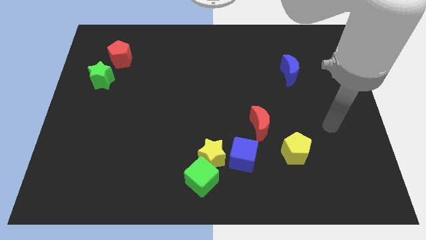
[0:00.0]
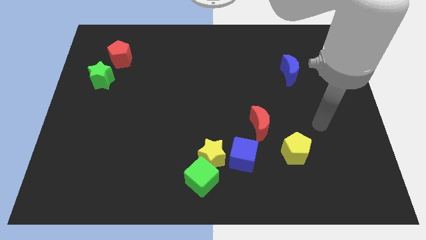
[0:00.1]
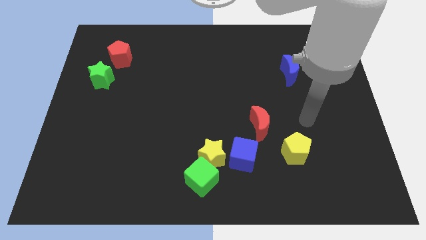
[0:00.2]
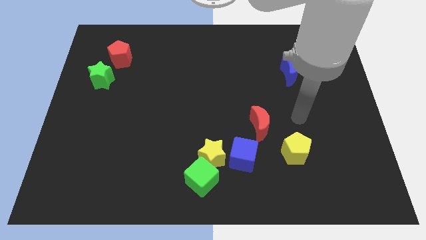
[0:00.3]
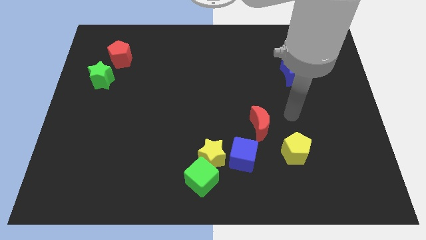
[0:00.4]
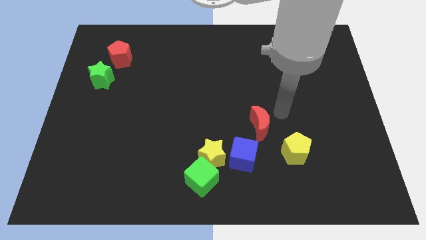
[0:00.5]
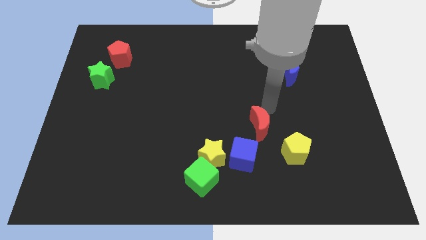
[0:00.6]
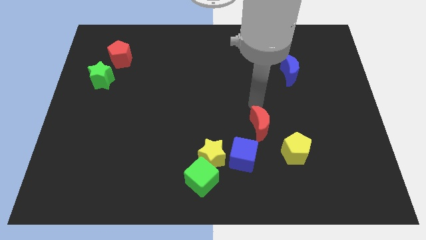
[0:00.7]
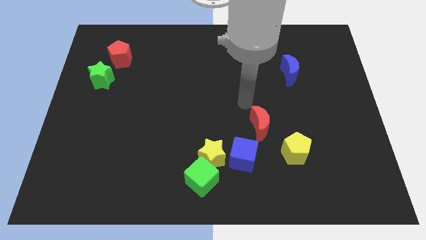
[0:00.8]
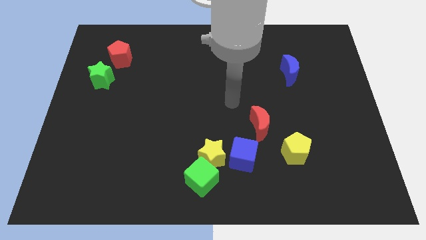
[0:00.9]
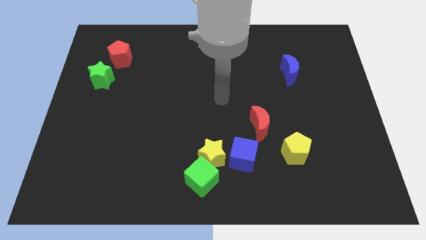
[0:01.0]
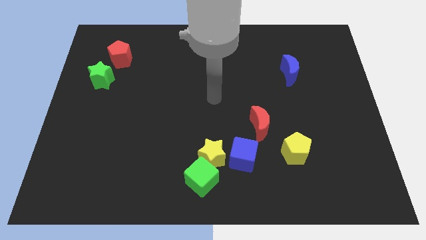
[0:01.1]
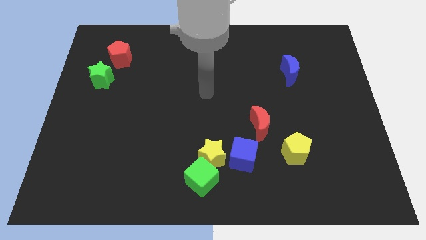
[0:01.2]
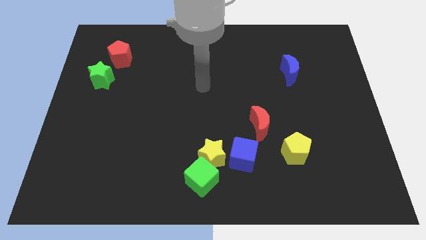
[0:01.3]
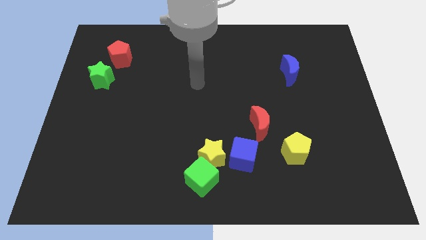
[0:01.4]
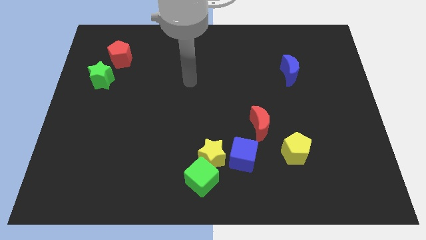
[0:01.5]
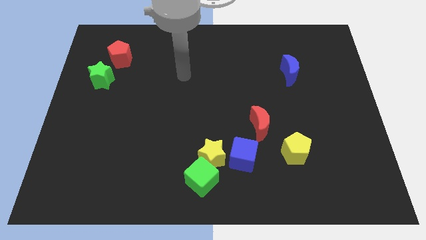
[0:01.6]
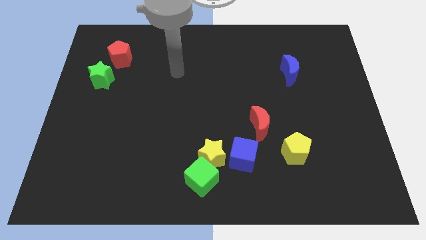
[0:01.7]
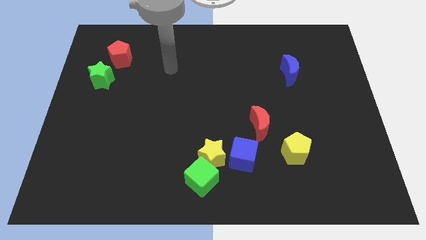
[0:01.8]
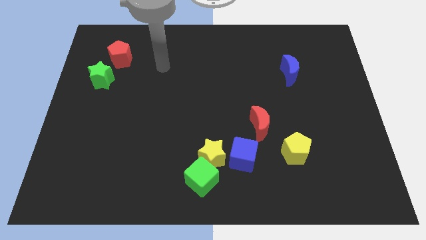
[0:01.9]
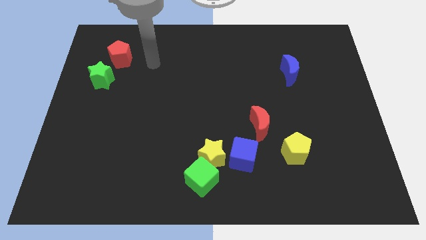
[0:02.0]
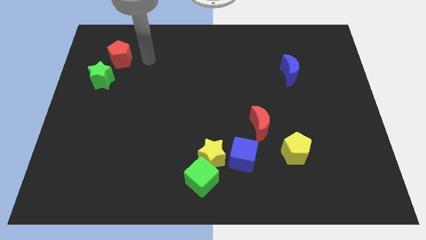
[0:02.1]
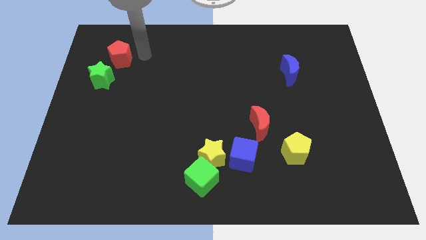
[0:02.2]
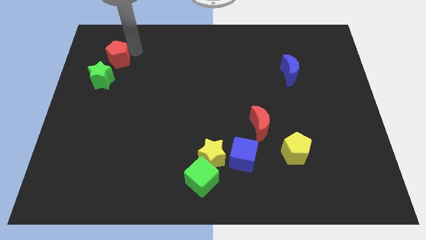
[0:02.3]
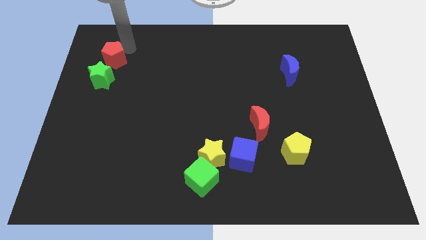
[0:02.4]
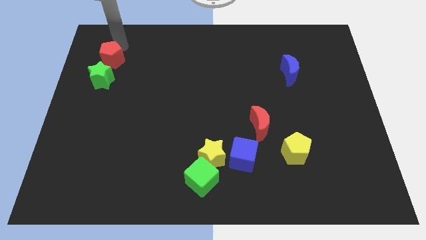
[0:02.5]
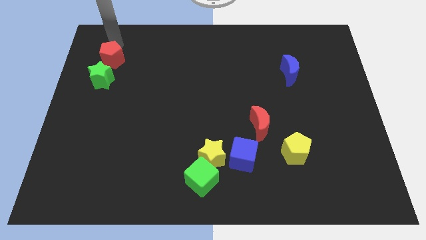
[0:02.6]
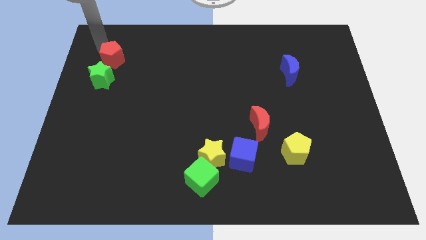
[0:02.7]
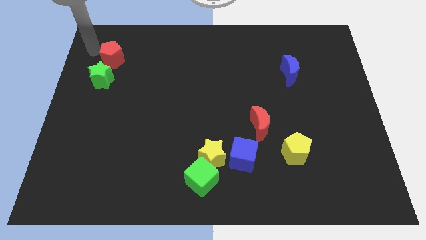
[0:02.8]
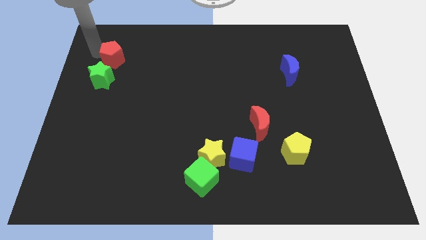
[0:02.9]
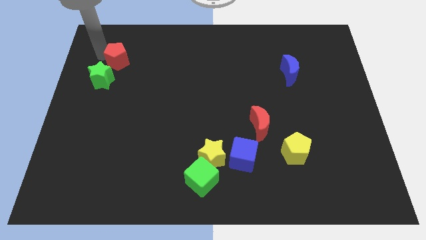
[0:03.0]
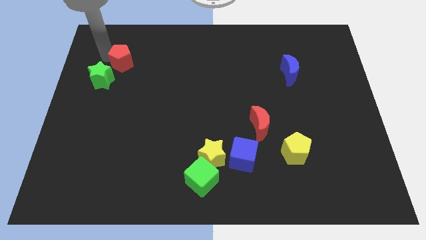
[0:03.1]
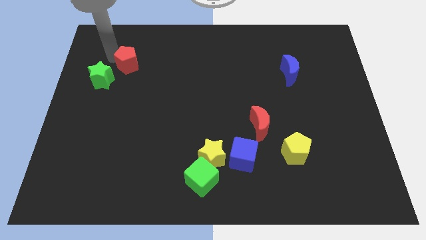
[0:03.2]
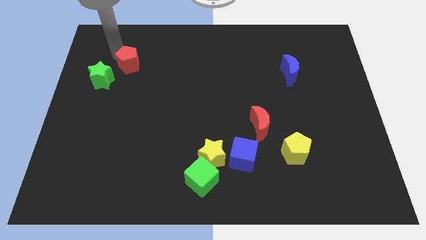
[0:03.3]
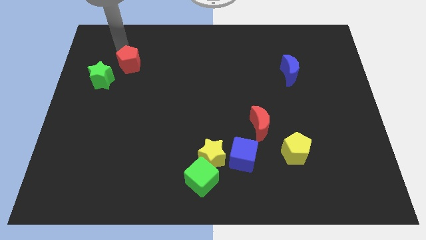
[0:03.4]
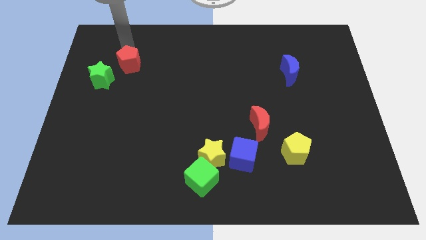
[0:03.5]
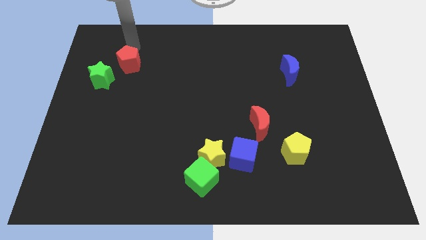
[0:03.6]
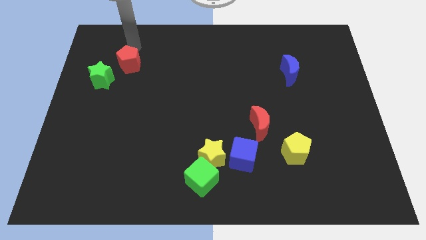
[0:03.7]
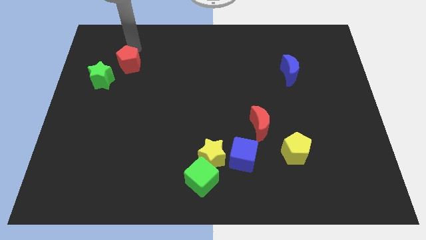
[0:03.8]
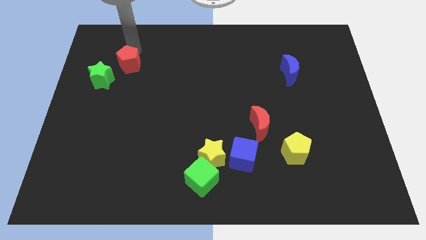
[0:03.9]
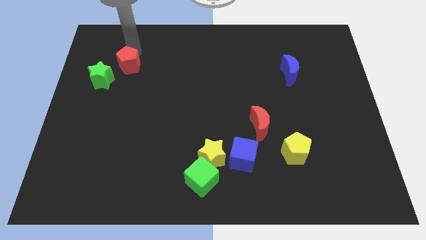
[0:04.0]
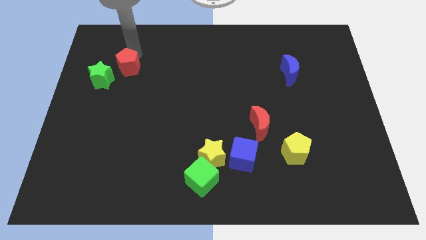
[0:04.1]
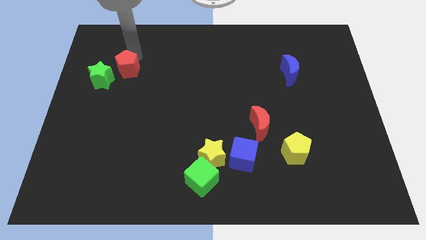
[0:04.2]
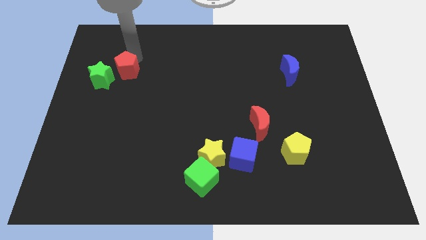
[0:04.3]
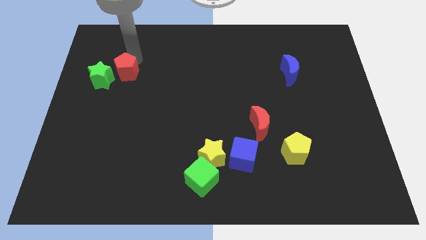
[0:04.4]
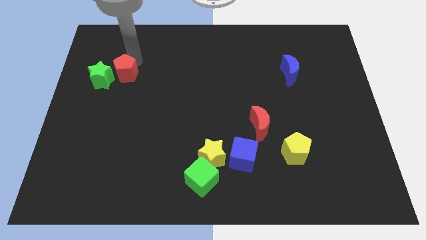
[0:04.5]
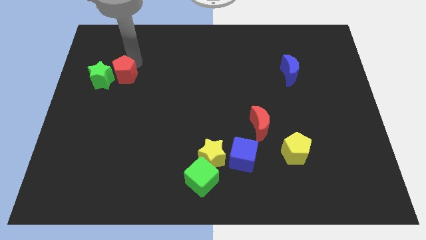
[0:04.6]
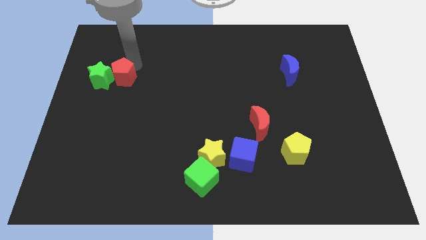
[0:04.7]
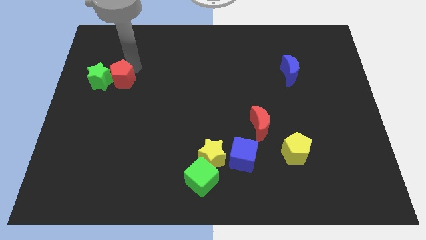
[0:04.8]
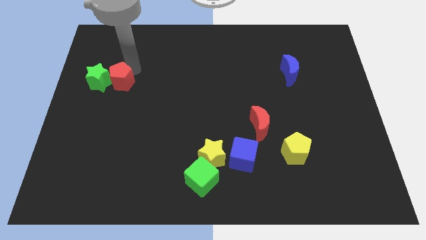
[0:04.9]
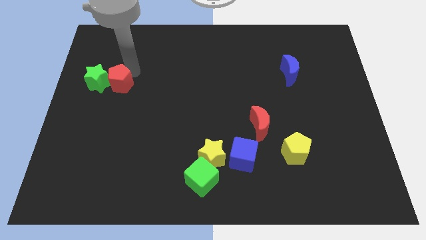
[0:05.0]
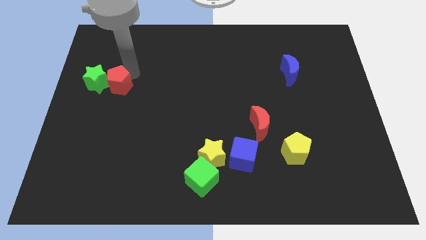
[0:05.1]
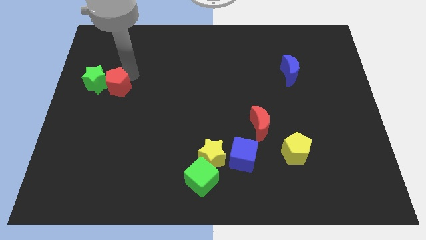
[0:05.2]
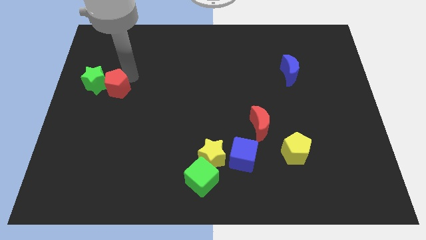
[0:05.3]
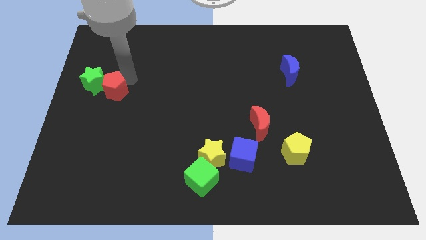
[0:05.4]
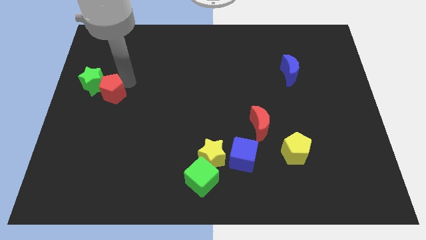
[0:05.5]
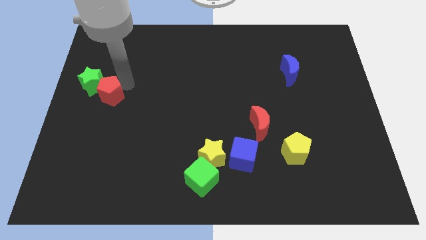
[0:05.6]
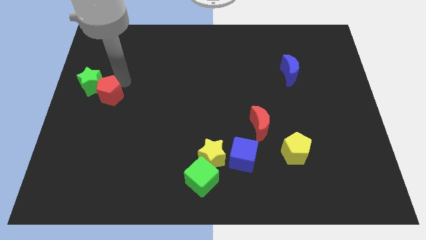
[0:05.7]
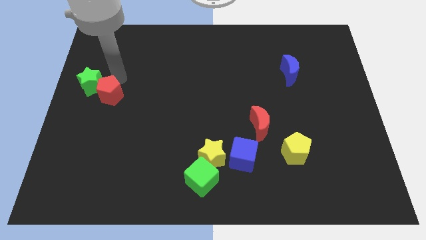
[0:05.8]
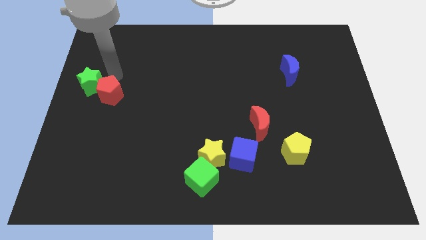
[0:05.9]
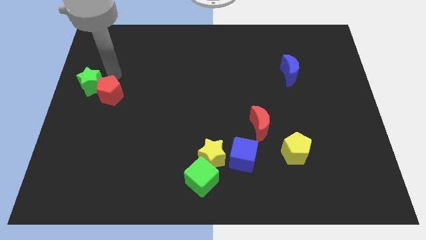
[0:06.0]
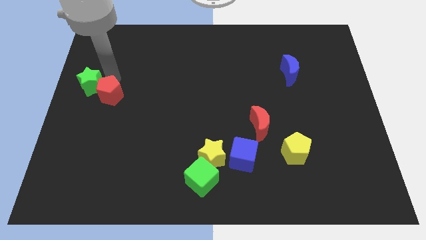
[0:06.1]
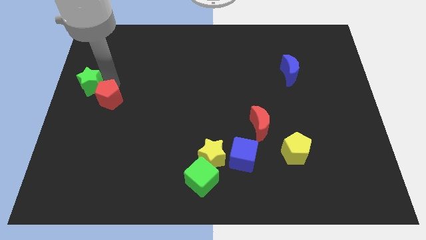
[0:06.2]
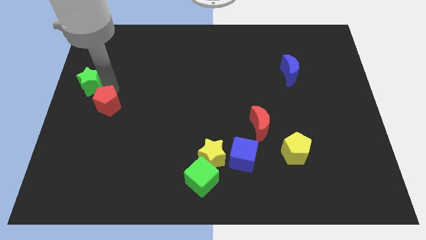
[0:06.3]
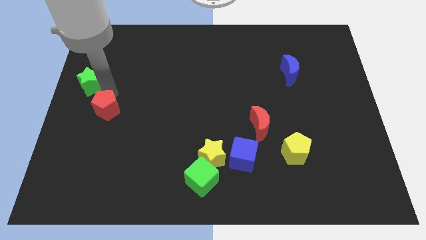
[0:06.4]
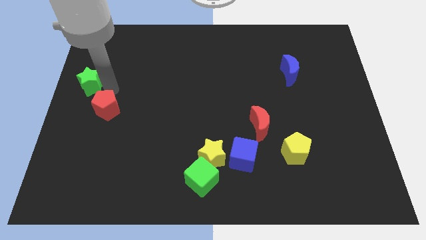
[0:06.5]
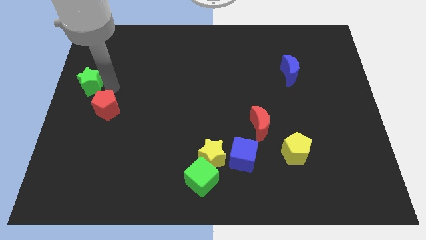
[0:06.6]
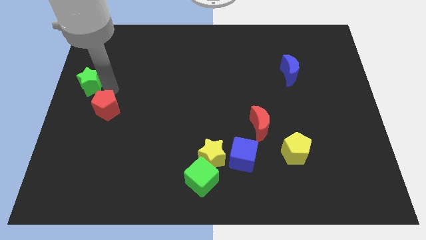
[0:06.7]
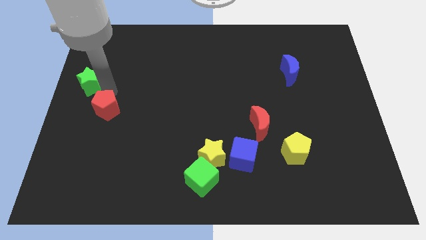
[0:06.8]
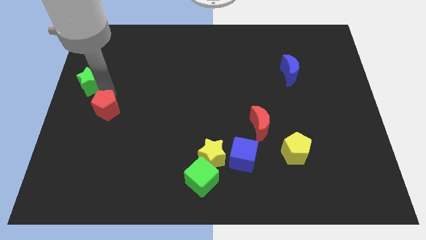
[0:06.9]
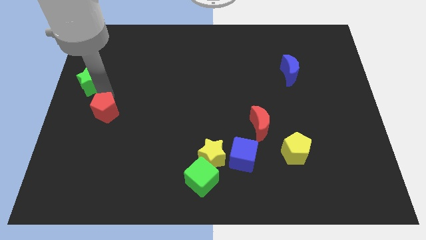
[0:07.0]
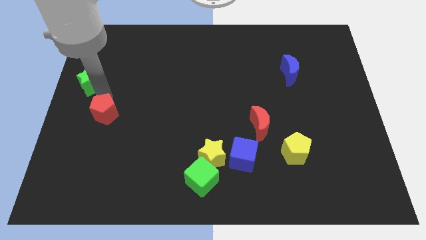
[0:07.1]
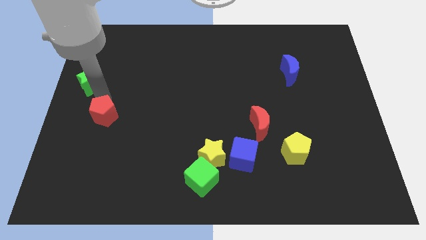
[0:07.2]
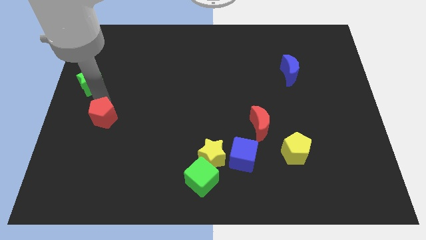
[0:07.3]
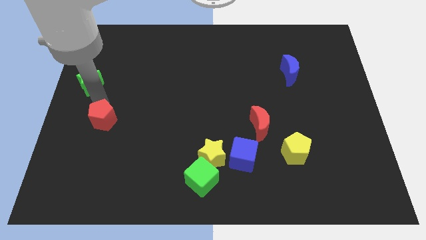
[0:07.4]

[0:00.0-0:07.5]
move the red pentagon down

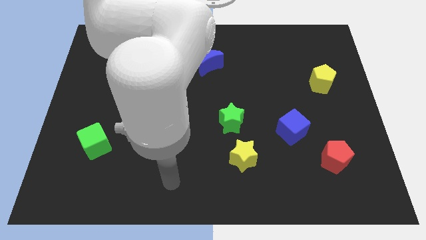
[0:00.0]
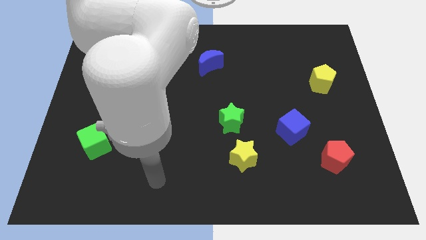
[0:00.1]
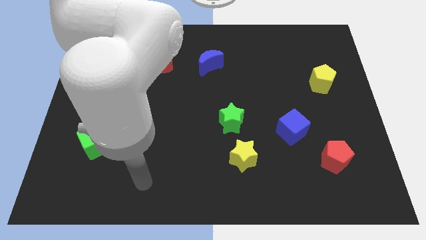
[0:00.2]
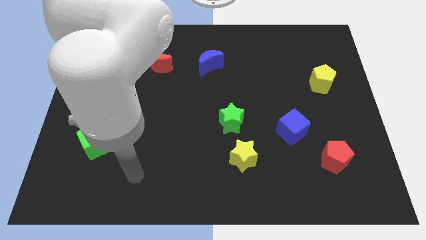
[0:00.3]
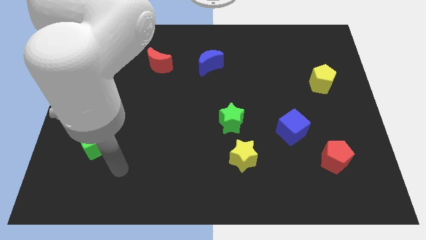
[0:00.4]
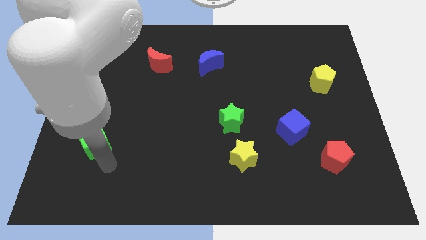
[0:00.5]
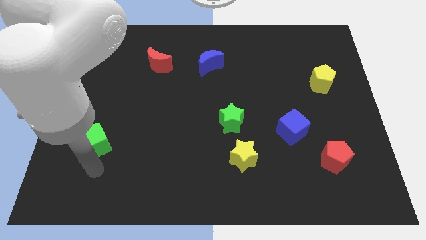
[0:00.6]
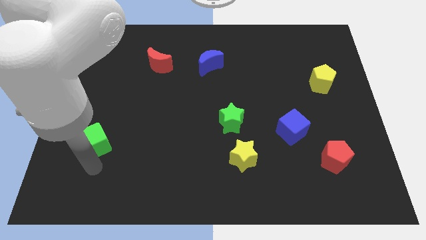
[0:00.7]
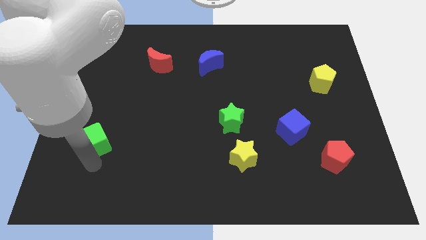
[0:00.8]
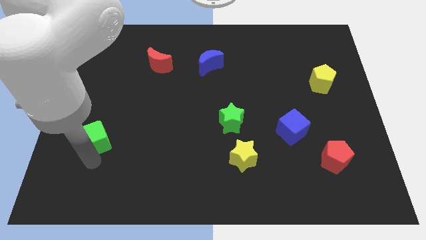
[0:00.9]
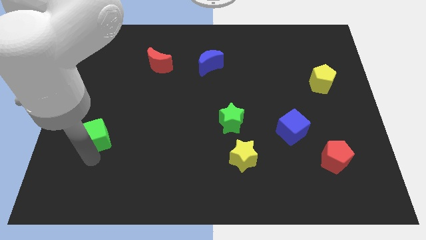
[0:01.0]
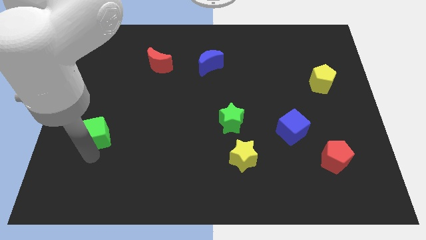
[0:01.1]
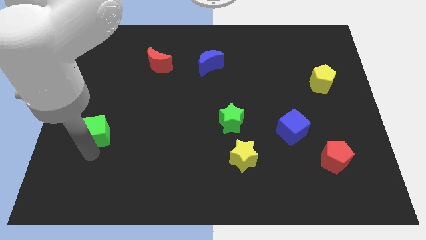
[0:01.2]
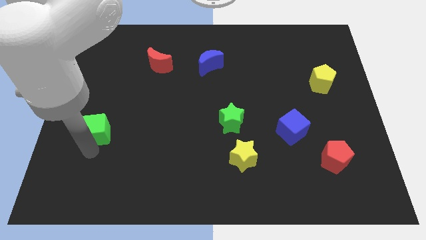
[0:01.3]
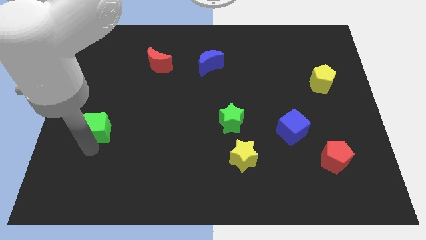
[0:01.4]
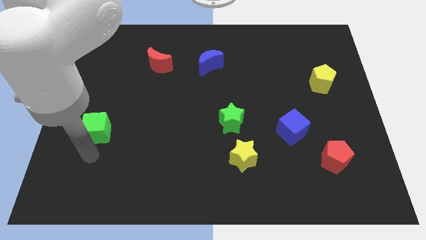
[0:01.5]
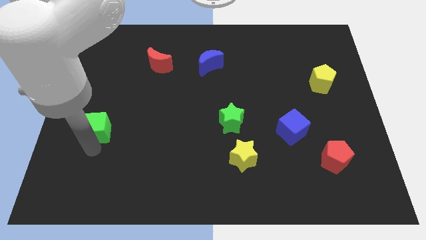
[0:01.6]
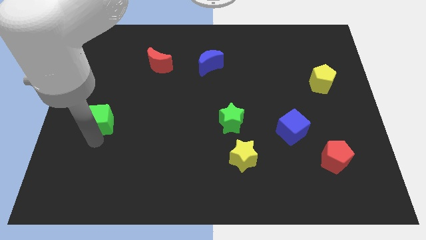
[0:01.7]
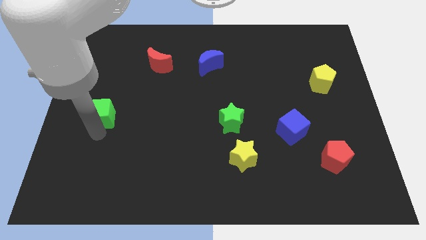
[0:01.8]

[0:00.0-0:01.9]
slightly push the green cube up
